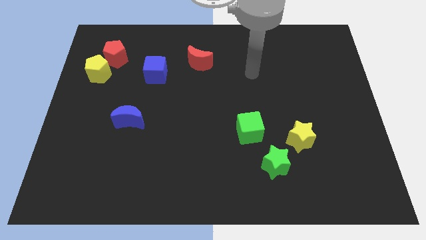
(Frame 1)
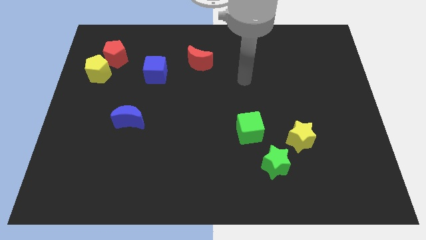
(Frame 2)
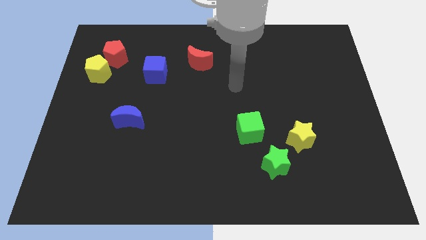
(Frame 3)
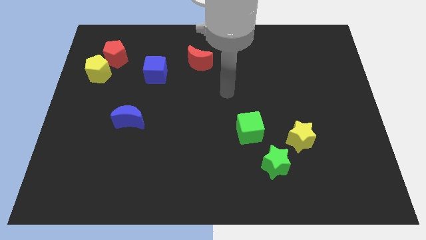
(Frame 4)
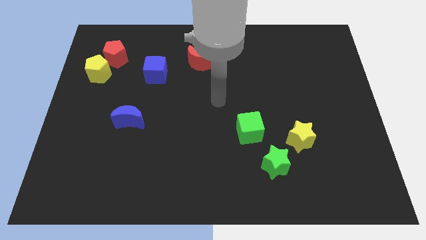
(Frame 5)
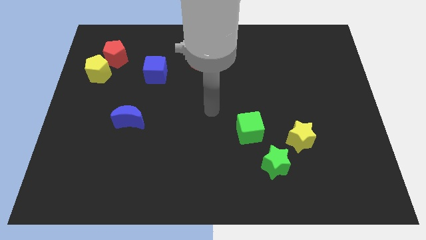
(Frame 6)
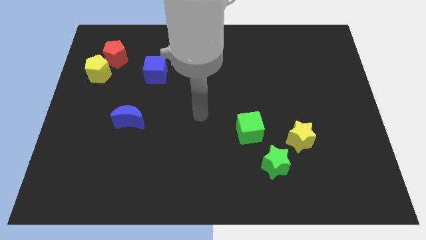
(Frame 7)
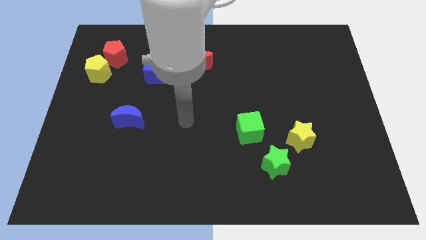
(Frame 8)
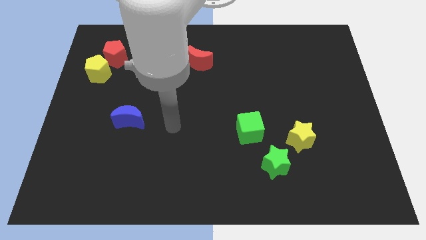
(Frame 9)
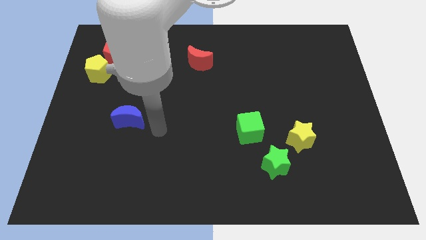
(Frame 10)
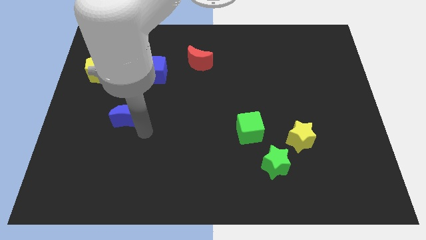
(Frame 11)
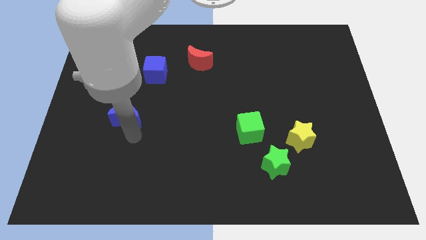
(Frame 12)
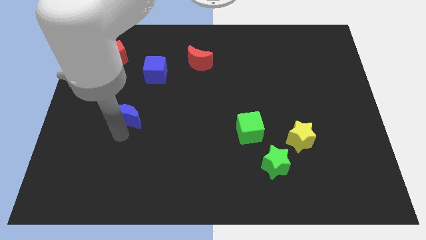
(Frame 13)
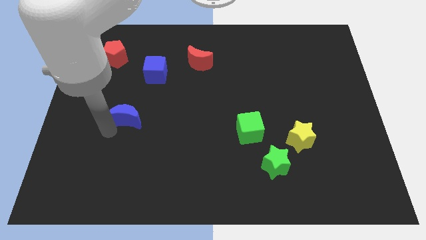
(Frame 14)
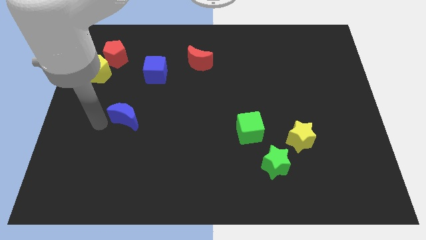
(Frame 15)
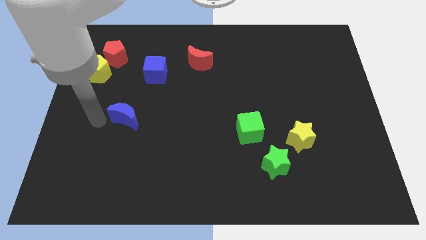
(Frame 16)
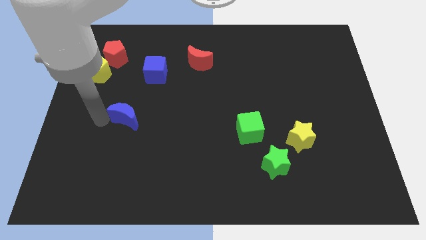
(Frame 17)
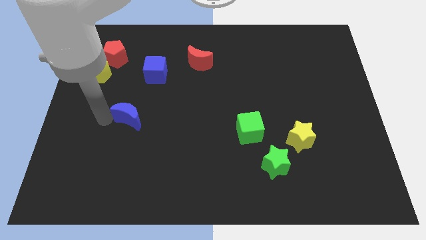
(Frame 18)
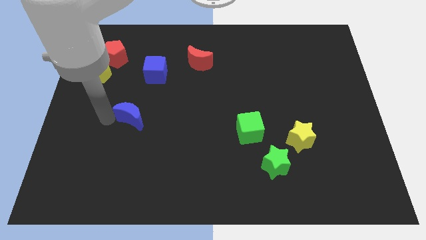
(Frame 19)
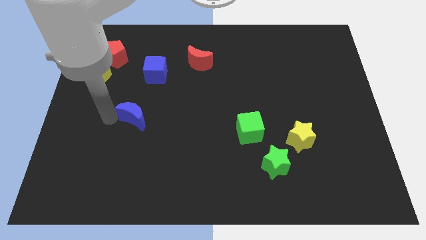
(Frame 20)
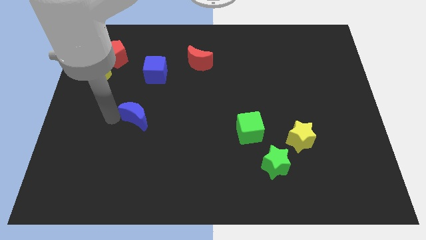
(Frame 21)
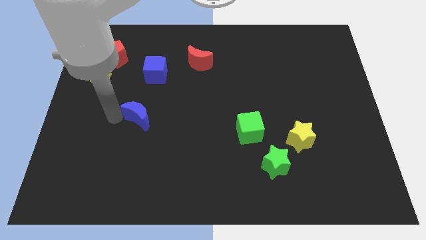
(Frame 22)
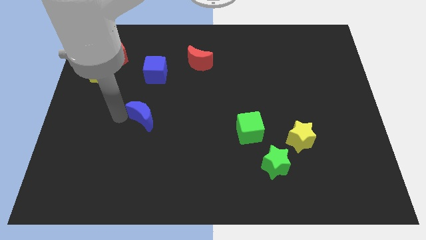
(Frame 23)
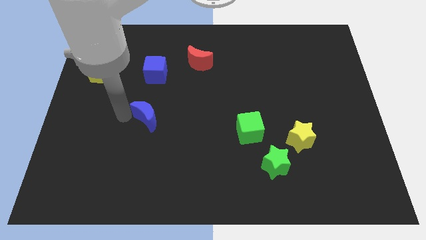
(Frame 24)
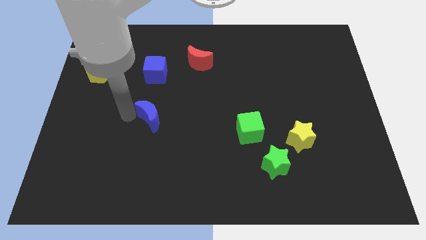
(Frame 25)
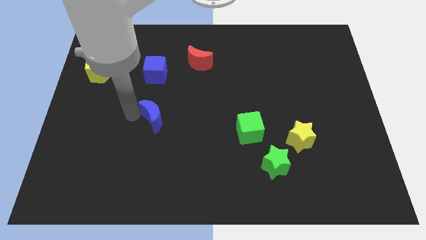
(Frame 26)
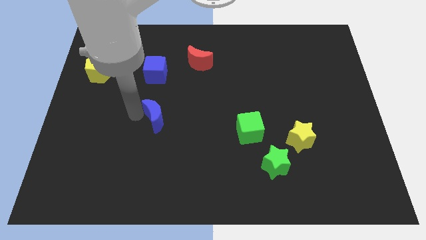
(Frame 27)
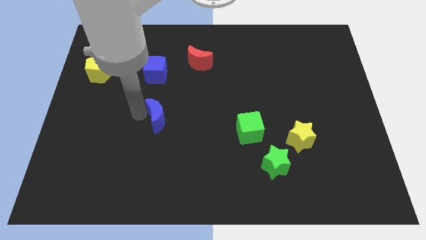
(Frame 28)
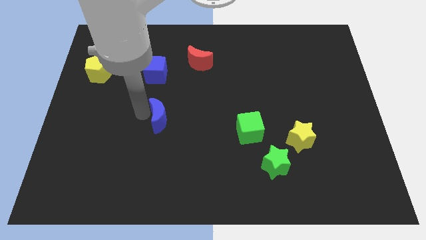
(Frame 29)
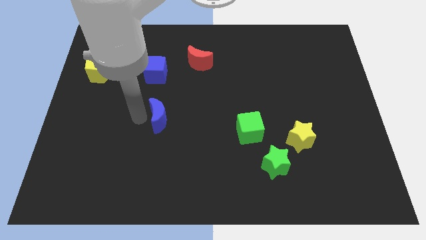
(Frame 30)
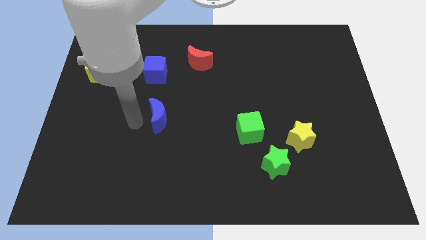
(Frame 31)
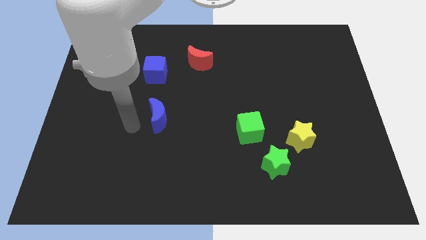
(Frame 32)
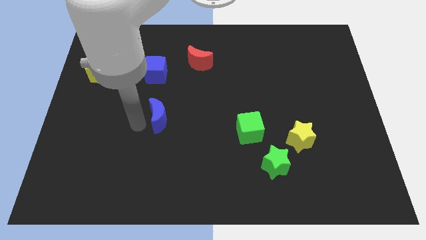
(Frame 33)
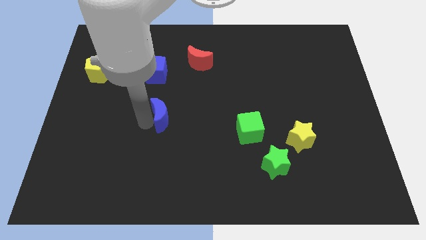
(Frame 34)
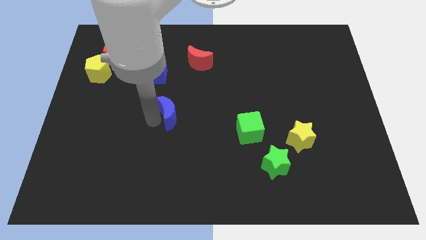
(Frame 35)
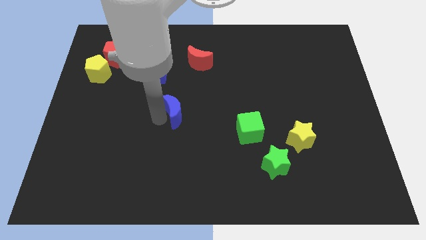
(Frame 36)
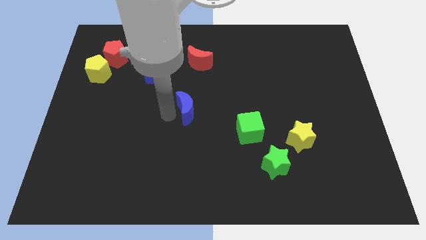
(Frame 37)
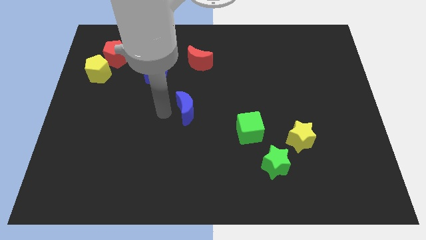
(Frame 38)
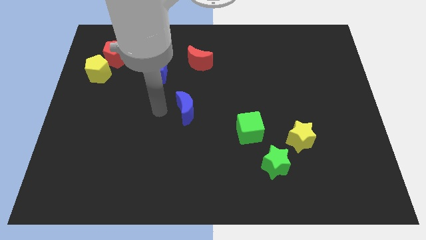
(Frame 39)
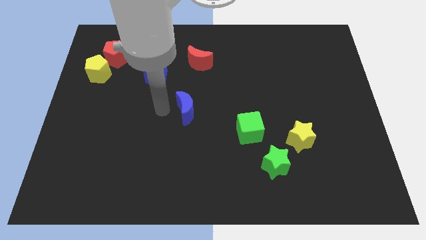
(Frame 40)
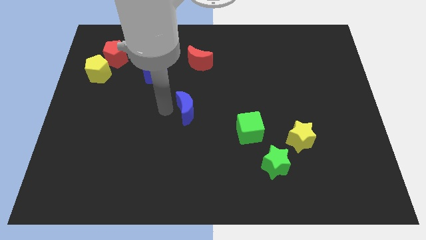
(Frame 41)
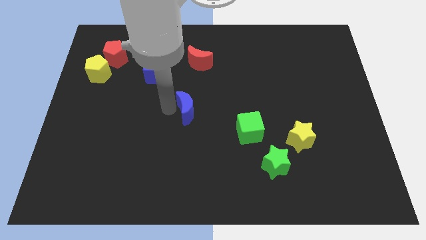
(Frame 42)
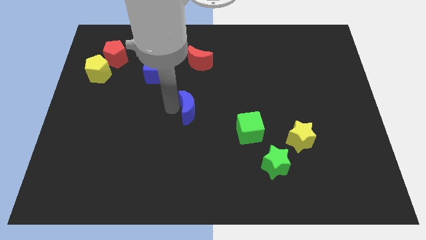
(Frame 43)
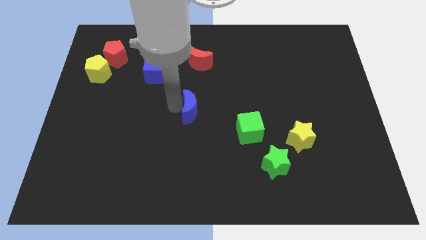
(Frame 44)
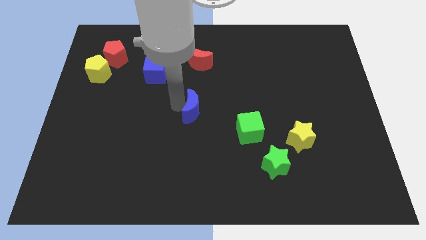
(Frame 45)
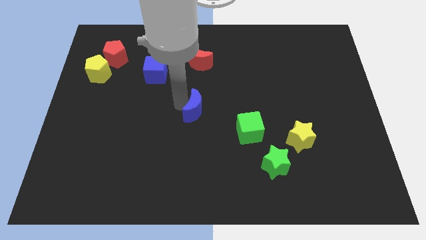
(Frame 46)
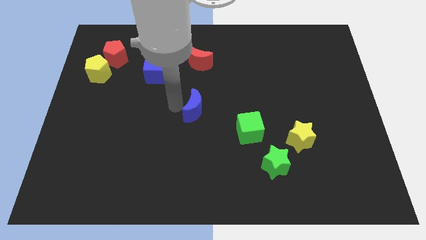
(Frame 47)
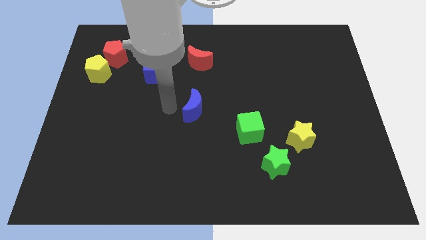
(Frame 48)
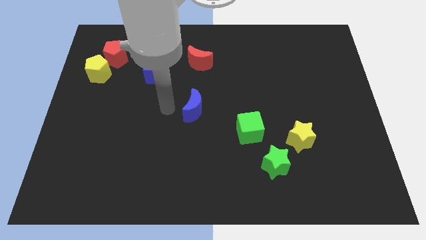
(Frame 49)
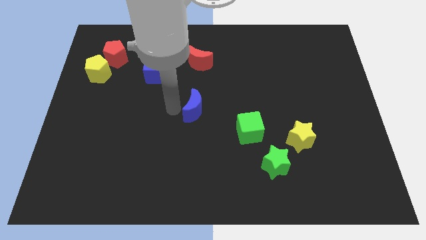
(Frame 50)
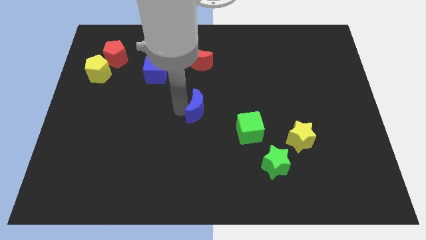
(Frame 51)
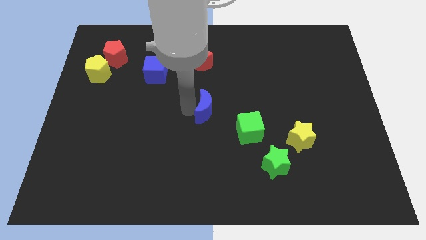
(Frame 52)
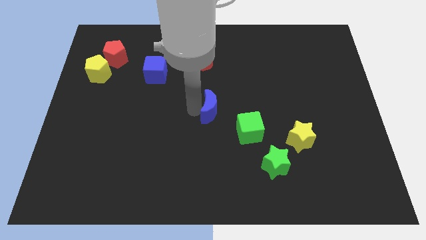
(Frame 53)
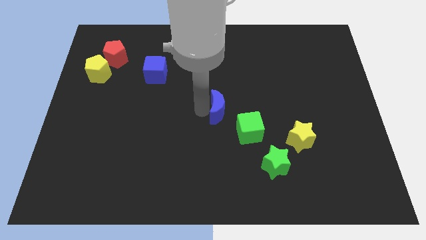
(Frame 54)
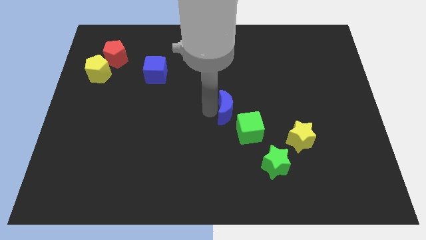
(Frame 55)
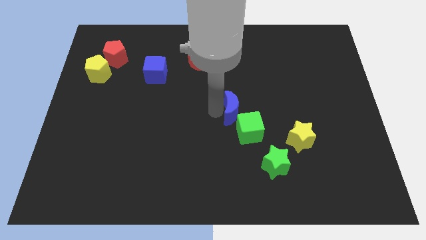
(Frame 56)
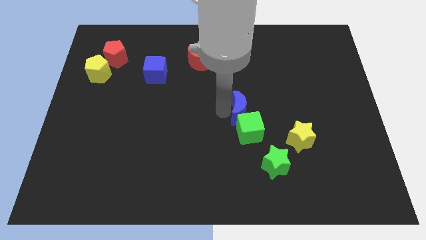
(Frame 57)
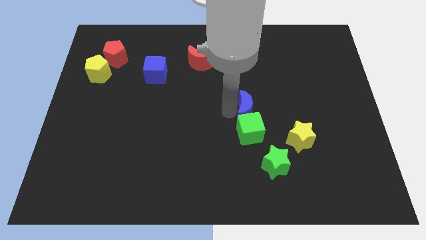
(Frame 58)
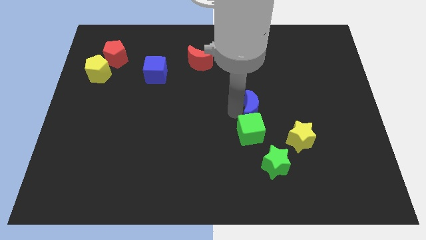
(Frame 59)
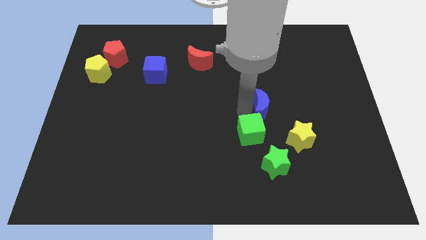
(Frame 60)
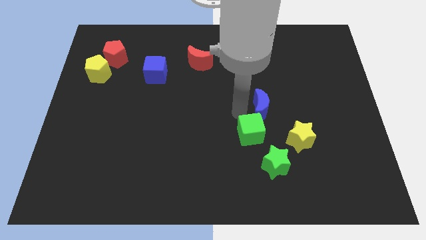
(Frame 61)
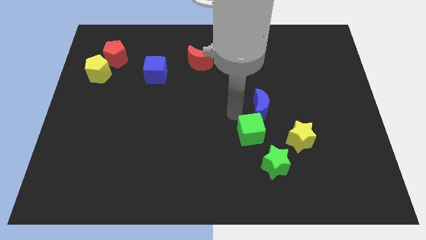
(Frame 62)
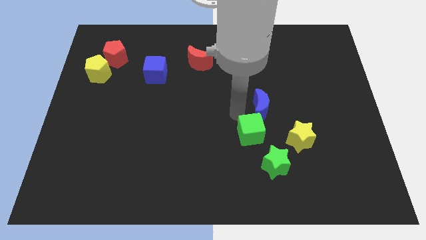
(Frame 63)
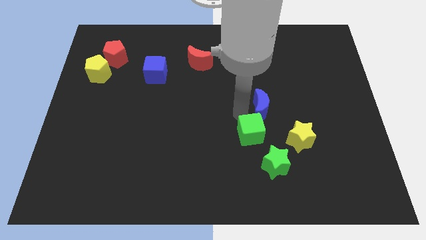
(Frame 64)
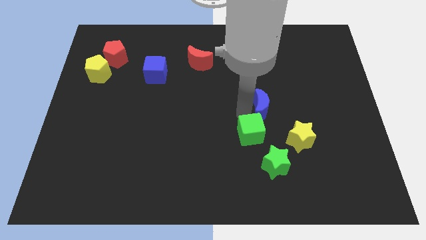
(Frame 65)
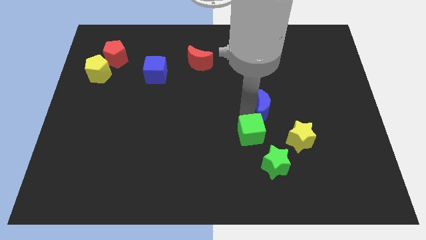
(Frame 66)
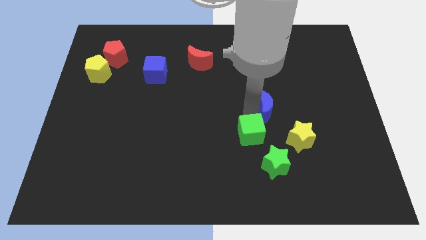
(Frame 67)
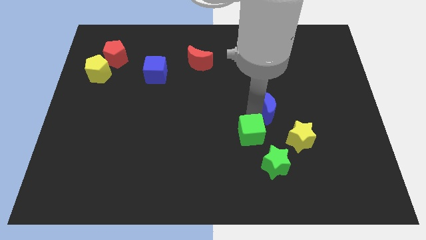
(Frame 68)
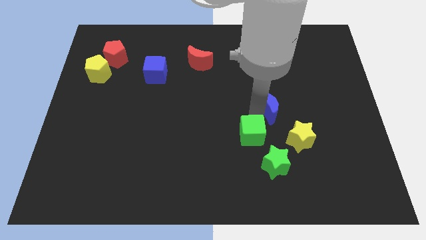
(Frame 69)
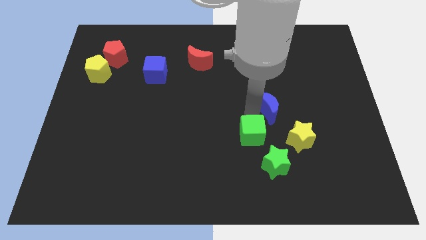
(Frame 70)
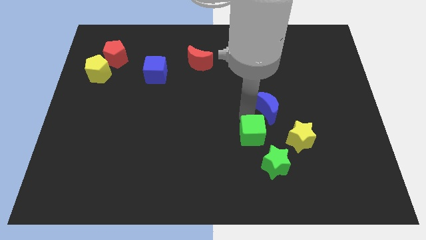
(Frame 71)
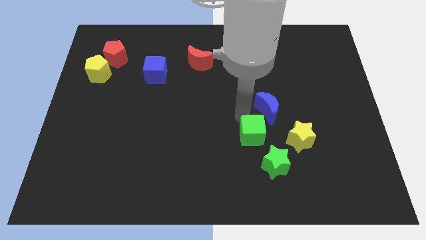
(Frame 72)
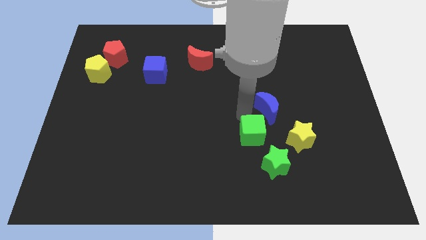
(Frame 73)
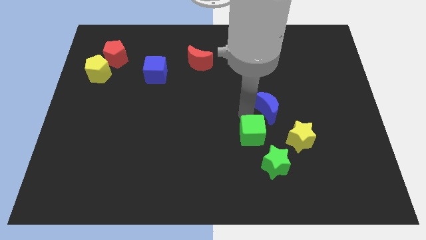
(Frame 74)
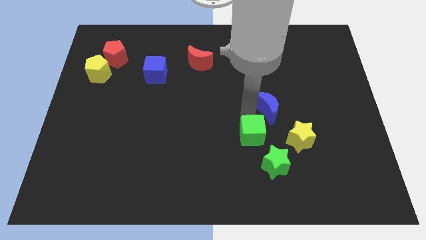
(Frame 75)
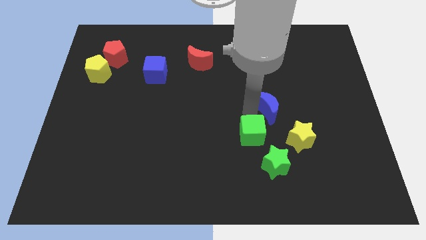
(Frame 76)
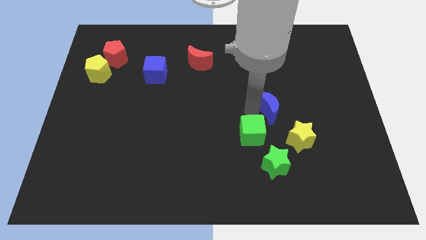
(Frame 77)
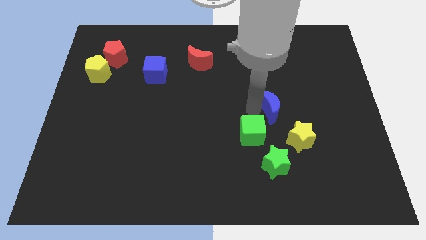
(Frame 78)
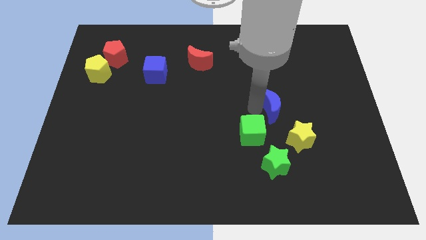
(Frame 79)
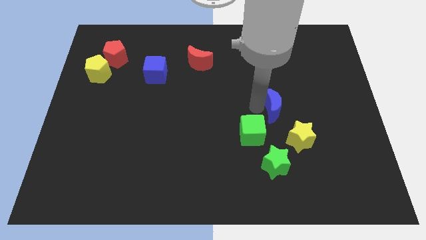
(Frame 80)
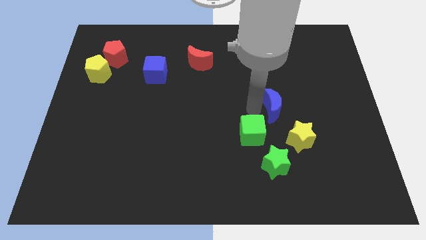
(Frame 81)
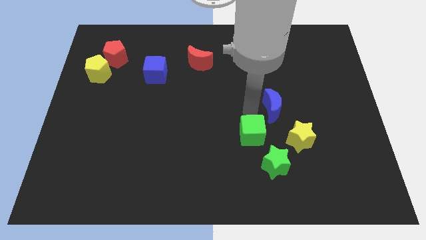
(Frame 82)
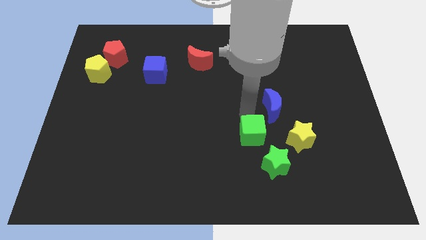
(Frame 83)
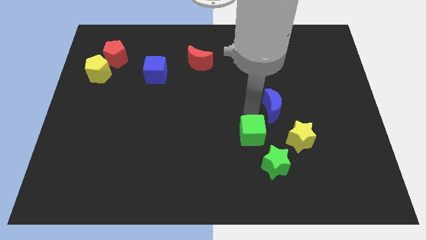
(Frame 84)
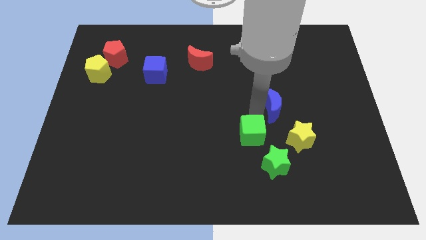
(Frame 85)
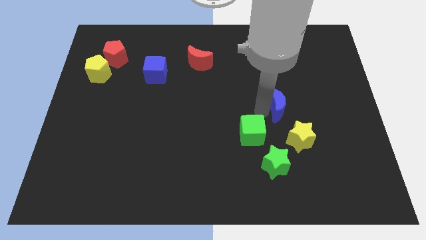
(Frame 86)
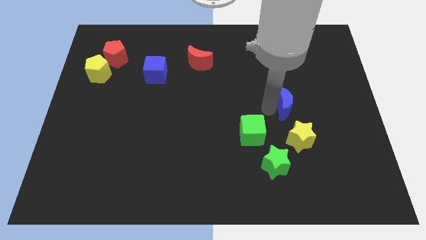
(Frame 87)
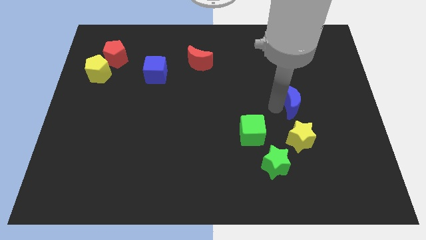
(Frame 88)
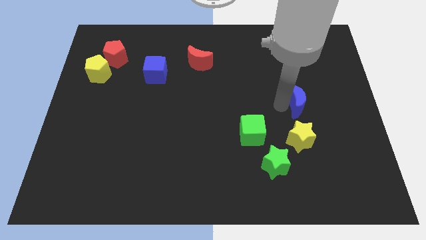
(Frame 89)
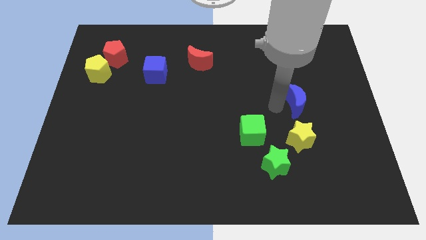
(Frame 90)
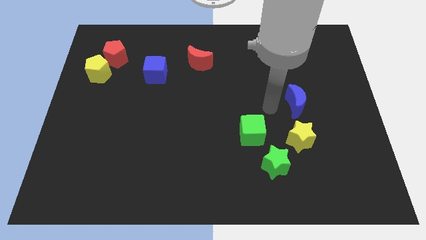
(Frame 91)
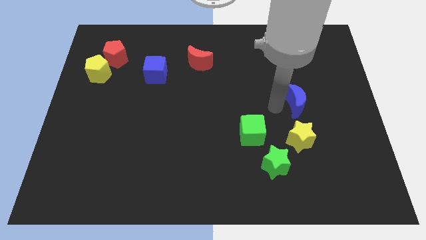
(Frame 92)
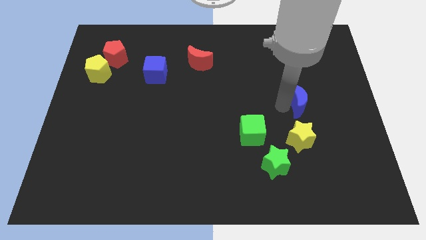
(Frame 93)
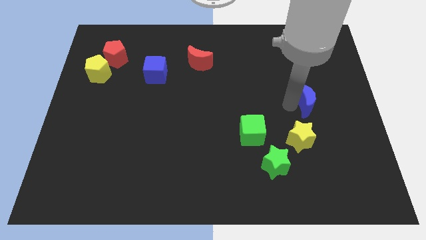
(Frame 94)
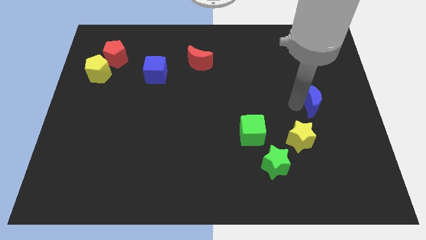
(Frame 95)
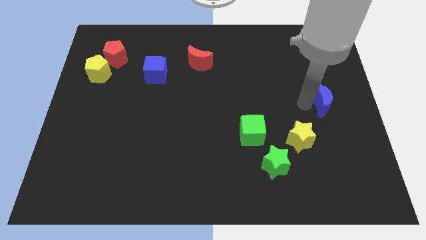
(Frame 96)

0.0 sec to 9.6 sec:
push the blue moon to the center right
